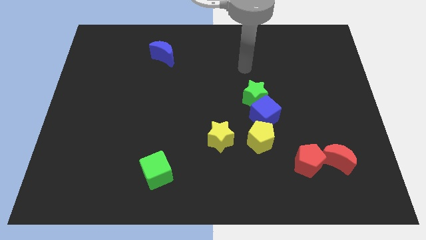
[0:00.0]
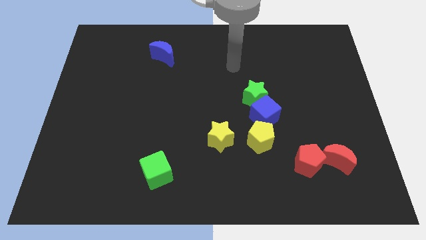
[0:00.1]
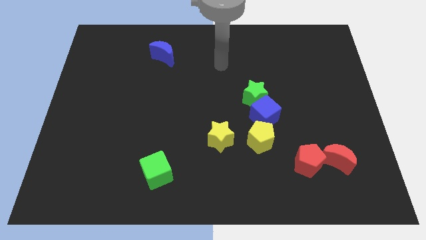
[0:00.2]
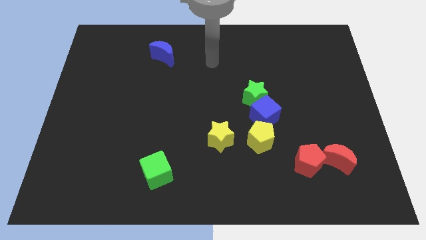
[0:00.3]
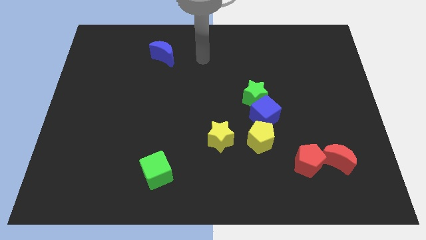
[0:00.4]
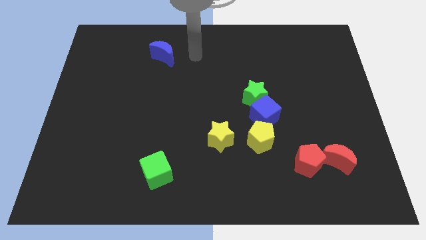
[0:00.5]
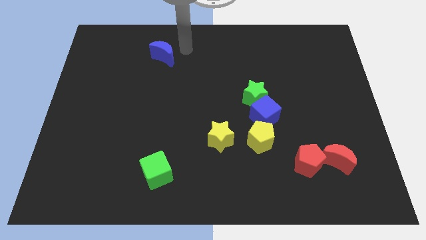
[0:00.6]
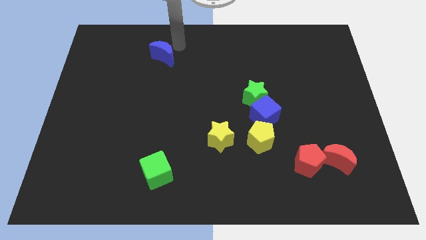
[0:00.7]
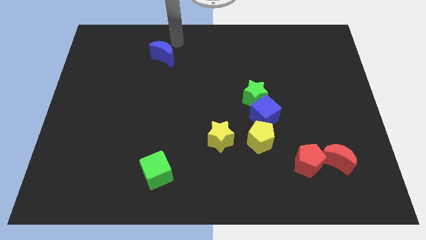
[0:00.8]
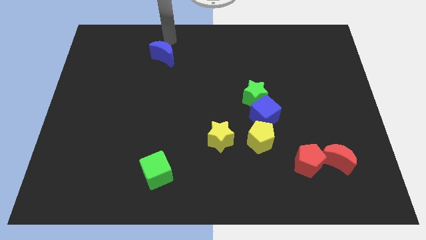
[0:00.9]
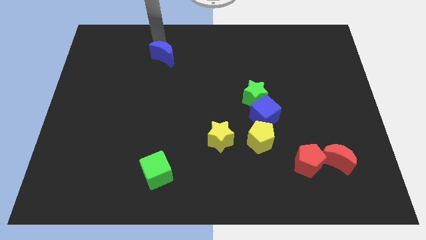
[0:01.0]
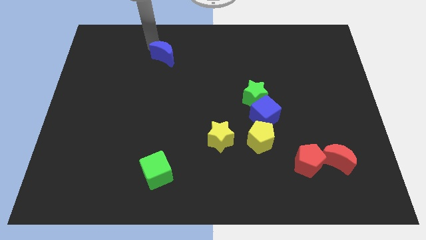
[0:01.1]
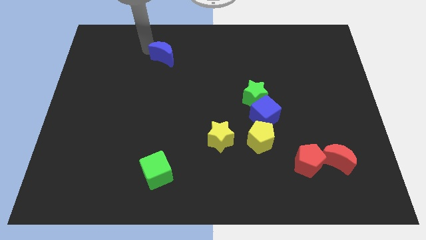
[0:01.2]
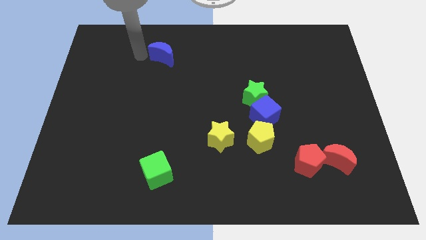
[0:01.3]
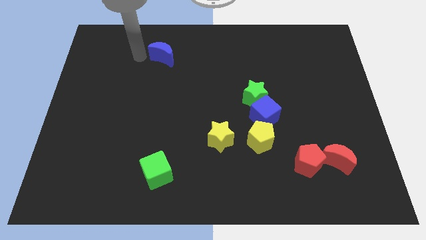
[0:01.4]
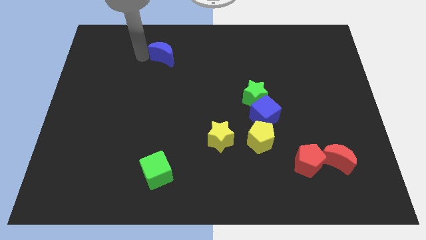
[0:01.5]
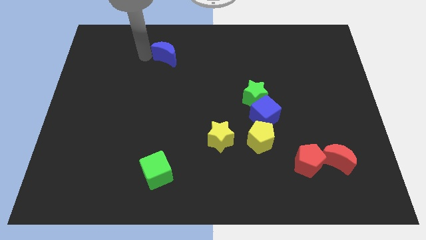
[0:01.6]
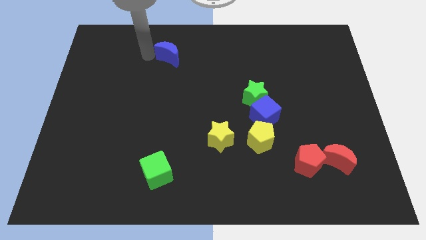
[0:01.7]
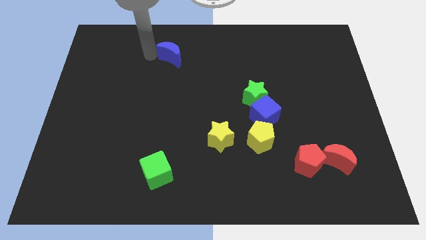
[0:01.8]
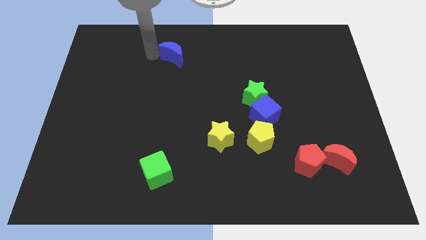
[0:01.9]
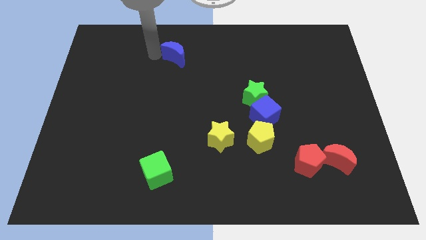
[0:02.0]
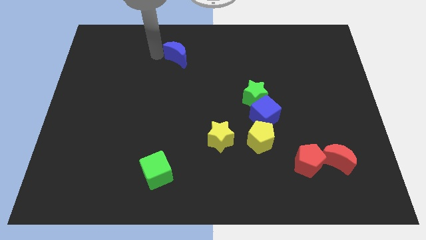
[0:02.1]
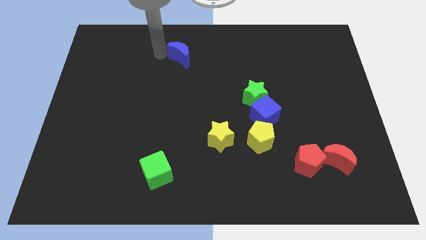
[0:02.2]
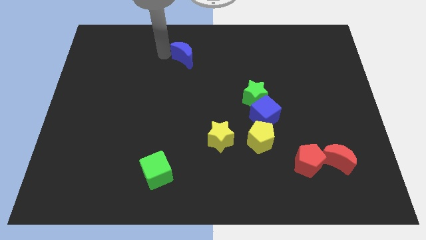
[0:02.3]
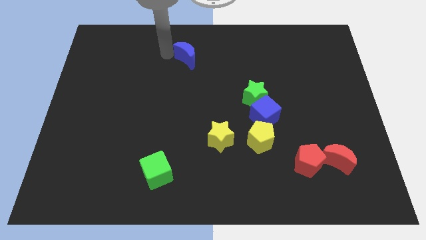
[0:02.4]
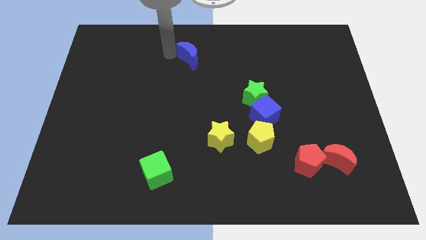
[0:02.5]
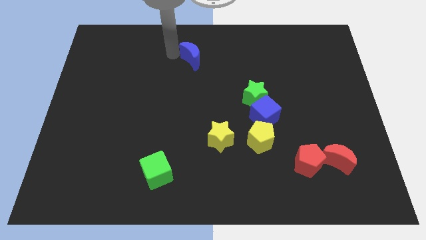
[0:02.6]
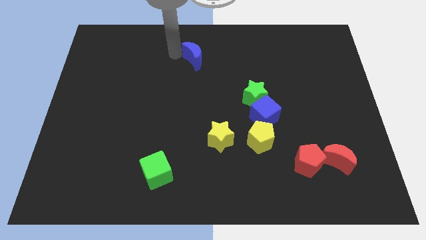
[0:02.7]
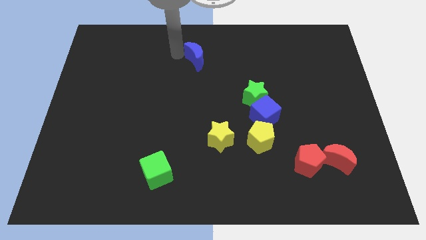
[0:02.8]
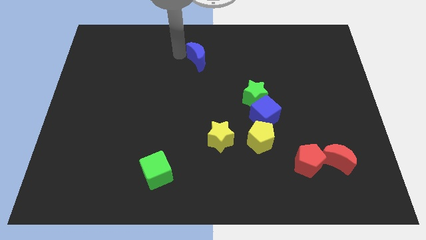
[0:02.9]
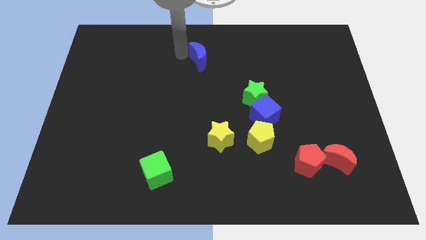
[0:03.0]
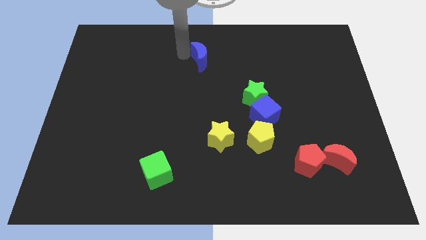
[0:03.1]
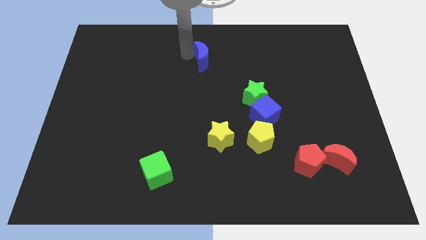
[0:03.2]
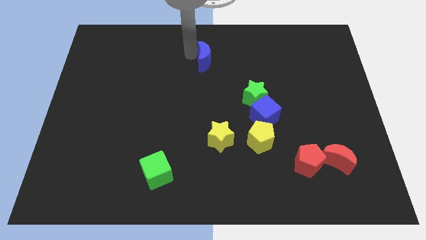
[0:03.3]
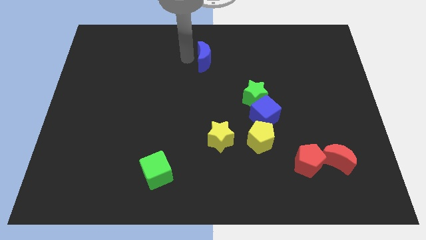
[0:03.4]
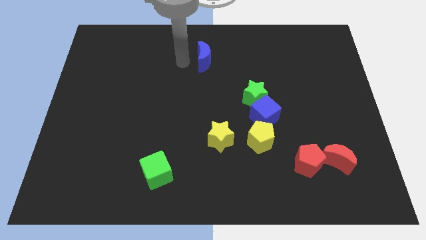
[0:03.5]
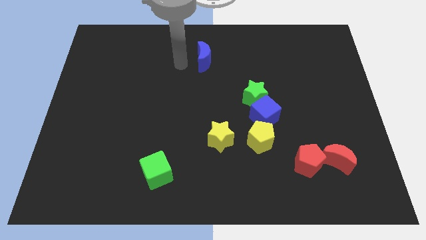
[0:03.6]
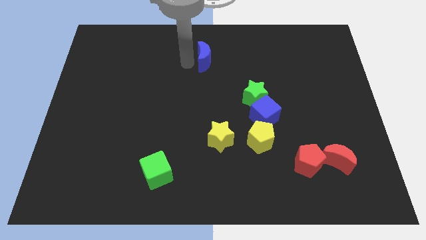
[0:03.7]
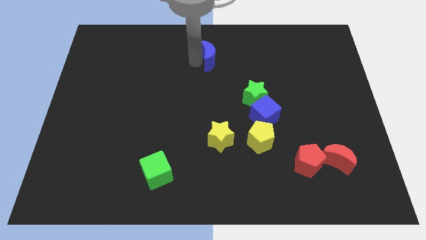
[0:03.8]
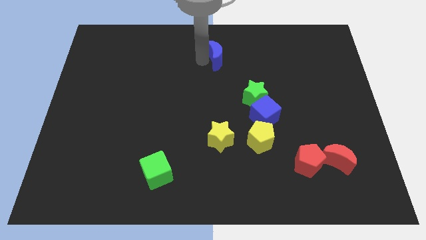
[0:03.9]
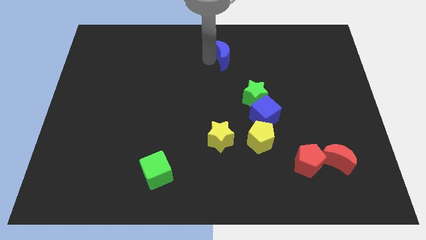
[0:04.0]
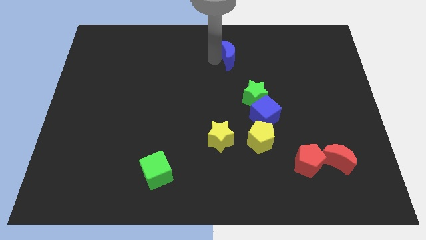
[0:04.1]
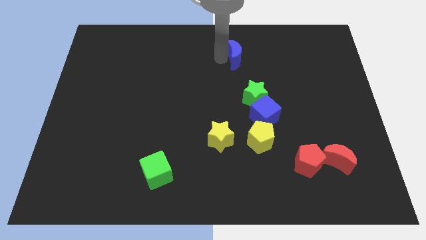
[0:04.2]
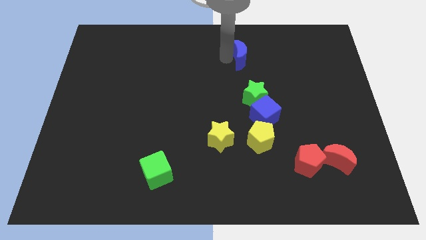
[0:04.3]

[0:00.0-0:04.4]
move the blue moon right

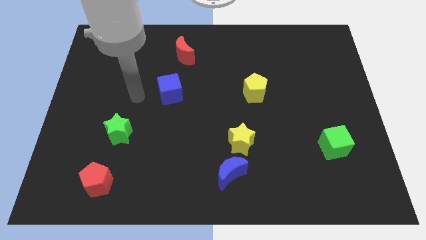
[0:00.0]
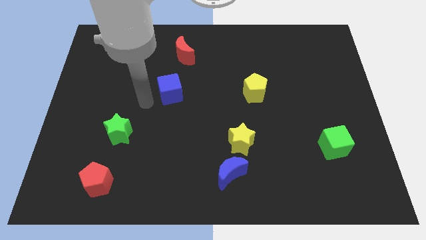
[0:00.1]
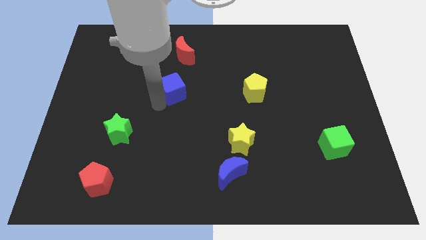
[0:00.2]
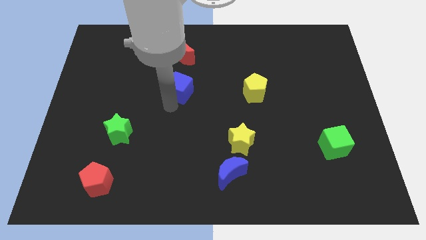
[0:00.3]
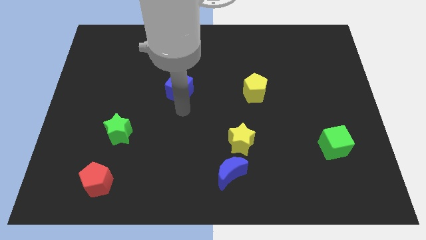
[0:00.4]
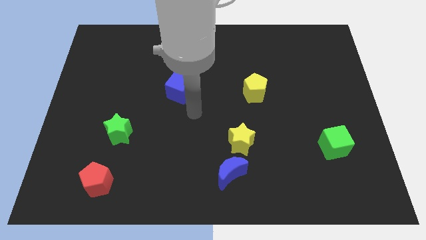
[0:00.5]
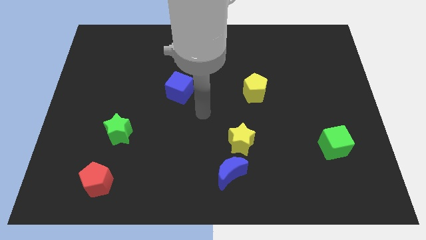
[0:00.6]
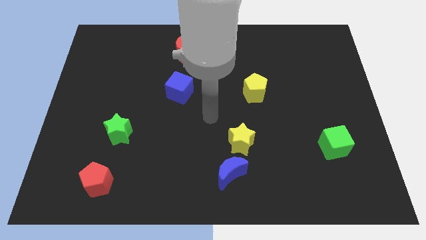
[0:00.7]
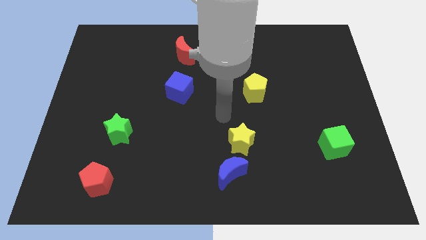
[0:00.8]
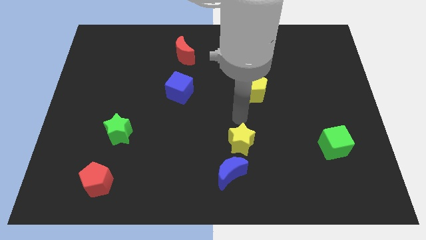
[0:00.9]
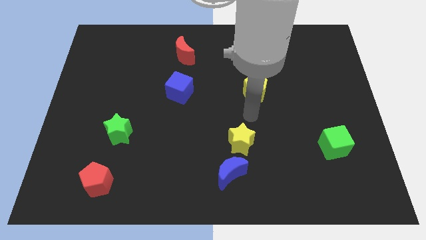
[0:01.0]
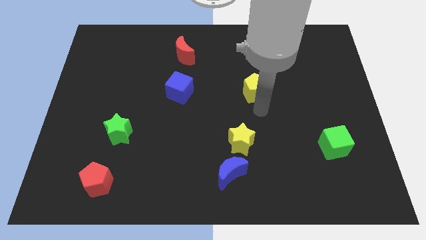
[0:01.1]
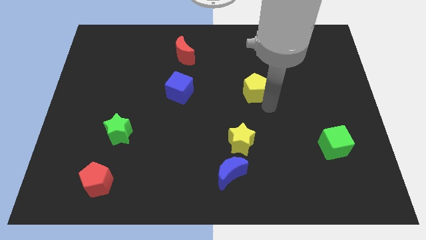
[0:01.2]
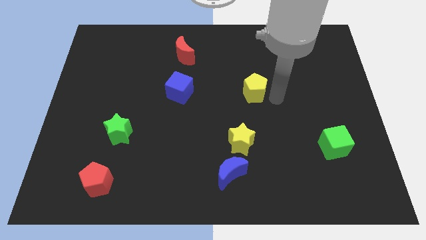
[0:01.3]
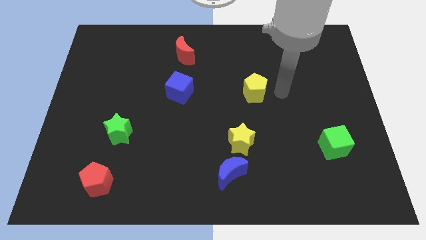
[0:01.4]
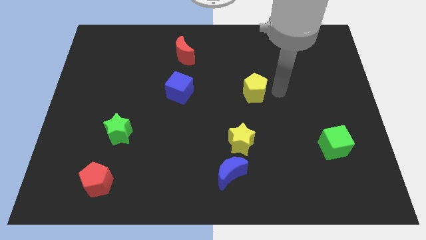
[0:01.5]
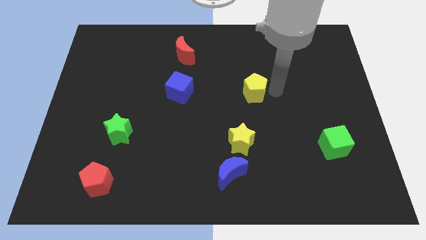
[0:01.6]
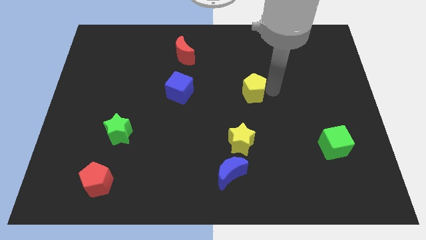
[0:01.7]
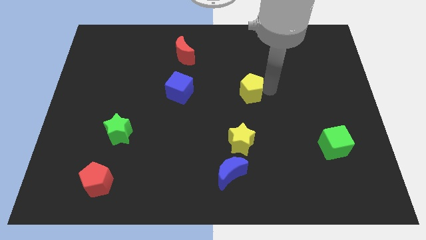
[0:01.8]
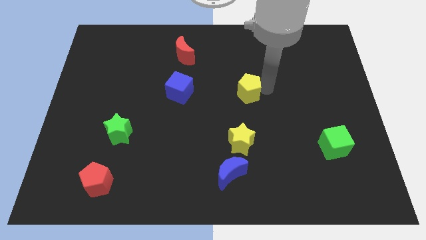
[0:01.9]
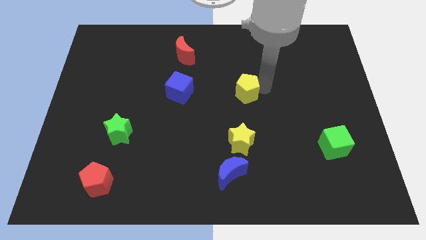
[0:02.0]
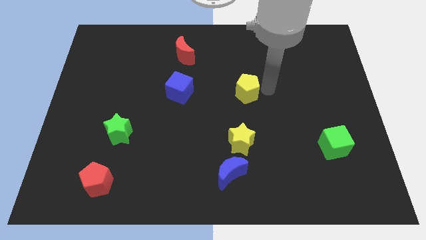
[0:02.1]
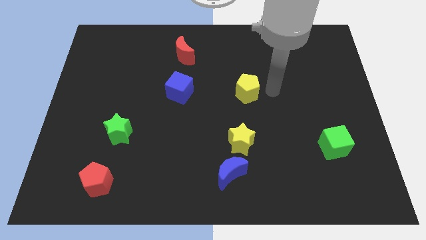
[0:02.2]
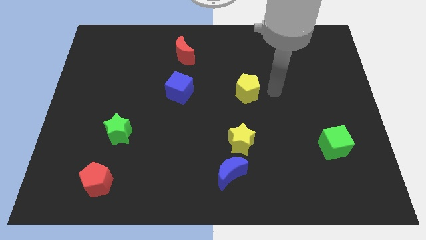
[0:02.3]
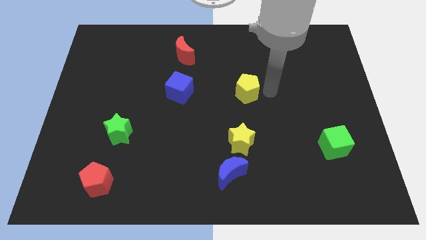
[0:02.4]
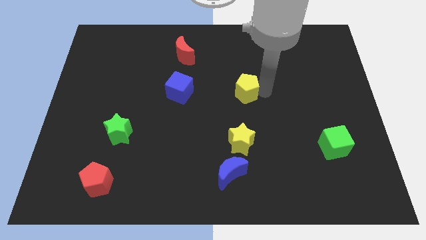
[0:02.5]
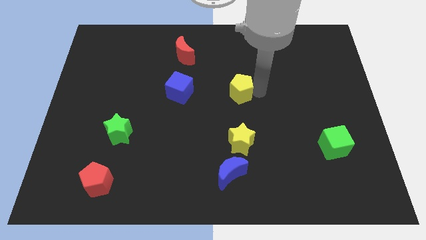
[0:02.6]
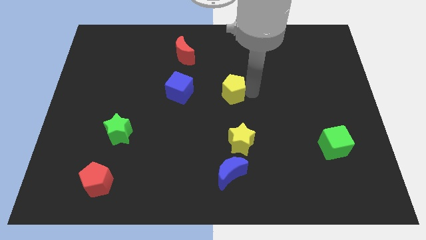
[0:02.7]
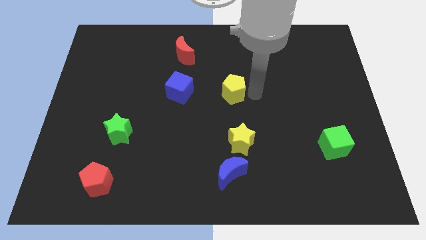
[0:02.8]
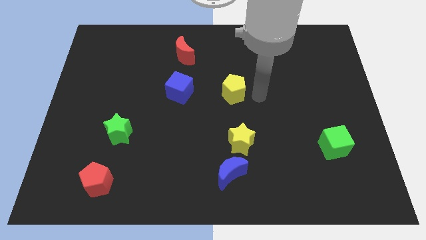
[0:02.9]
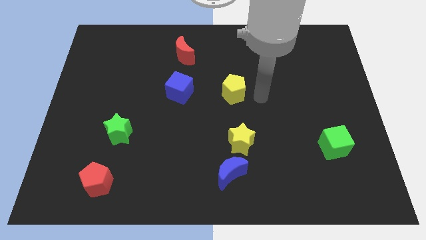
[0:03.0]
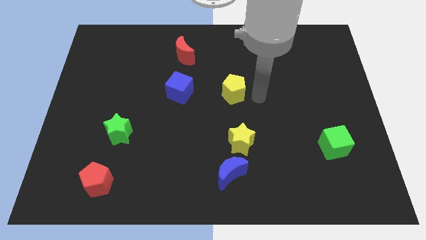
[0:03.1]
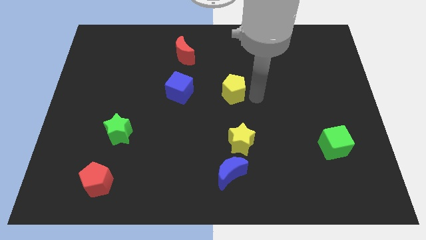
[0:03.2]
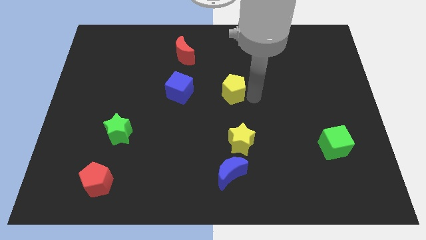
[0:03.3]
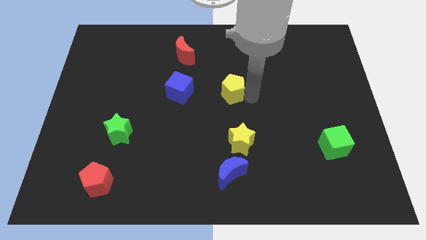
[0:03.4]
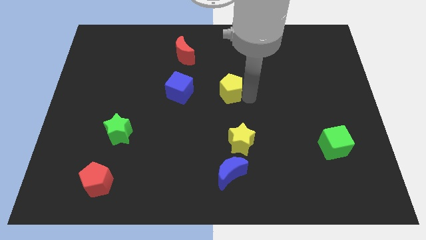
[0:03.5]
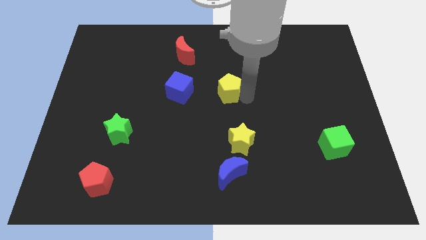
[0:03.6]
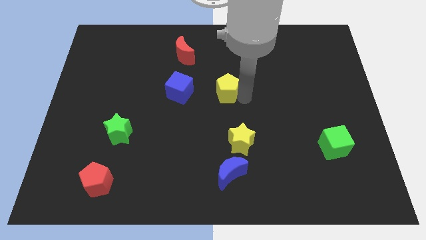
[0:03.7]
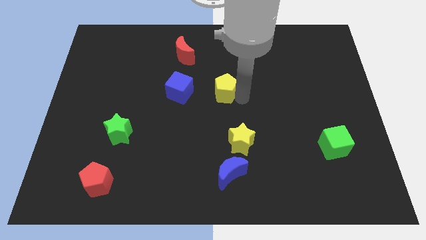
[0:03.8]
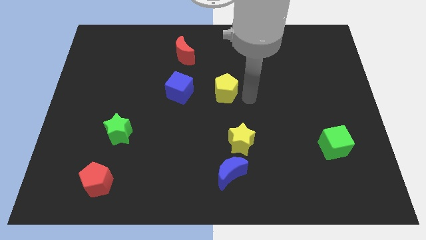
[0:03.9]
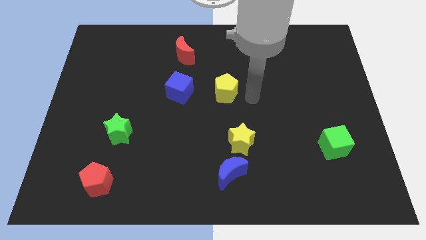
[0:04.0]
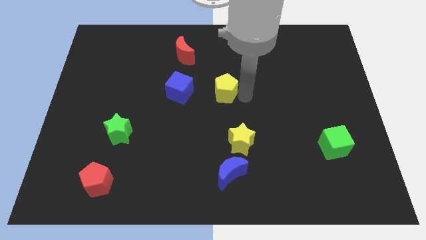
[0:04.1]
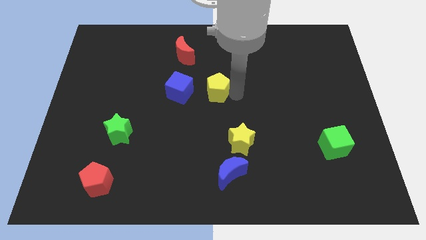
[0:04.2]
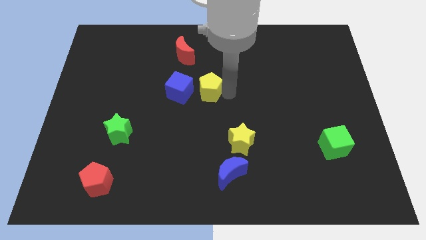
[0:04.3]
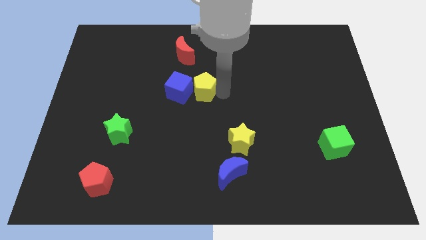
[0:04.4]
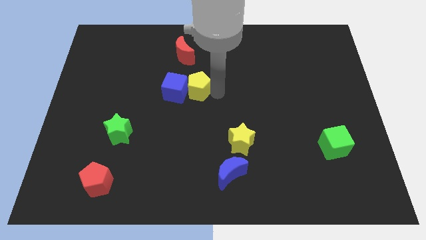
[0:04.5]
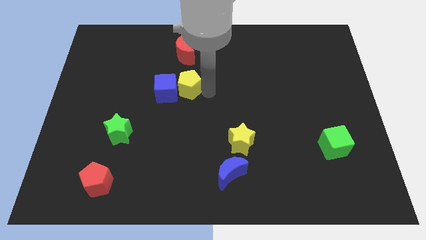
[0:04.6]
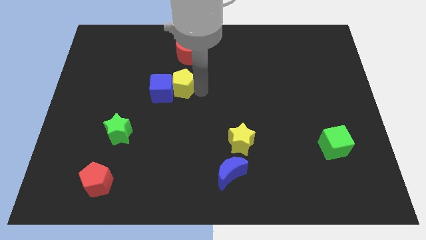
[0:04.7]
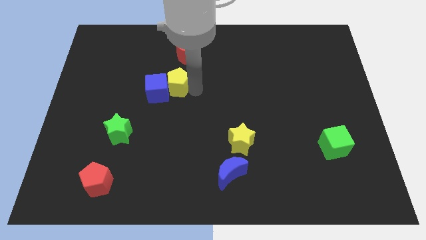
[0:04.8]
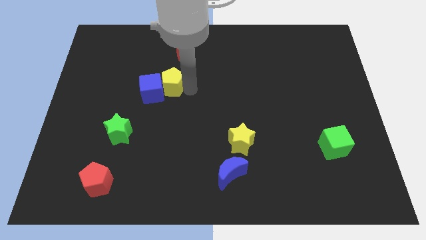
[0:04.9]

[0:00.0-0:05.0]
push the yellow pentagon to the left
